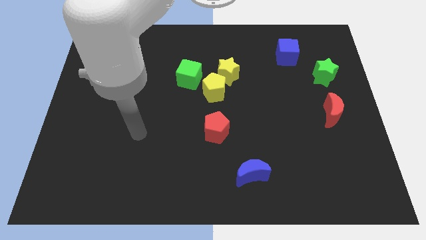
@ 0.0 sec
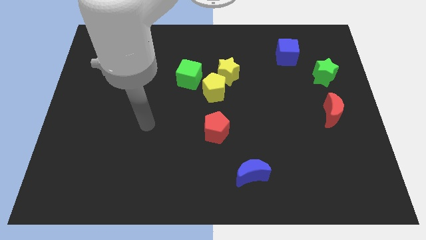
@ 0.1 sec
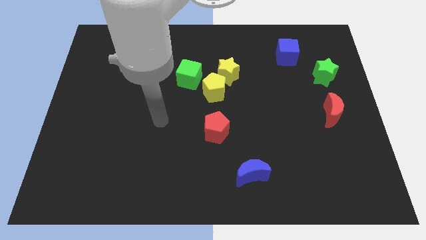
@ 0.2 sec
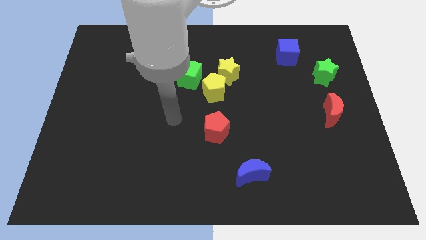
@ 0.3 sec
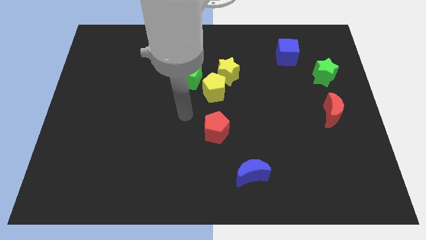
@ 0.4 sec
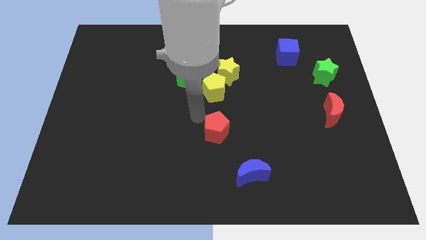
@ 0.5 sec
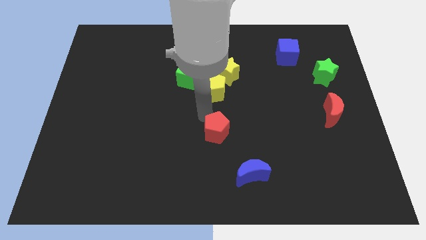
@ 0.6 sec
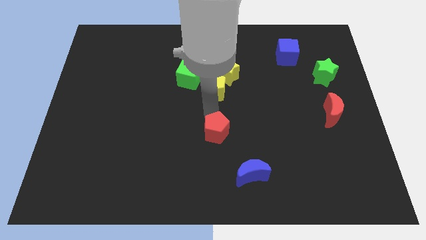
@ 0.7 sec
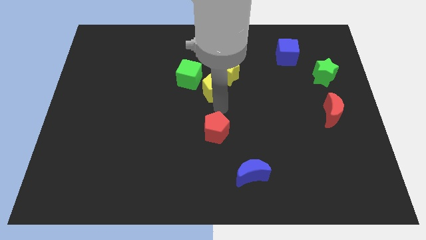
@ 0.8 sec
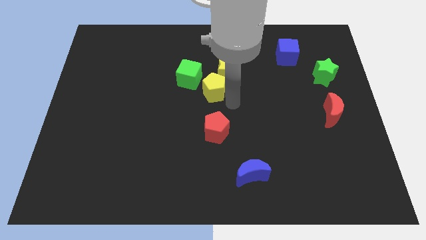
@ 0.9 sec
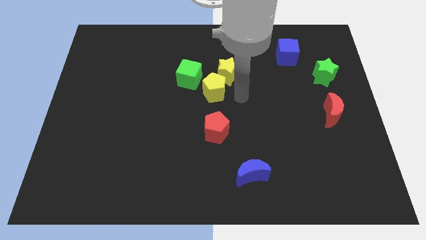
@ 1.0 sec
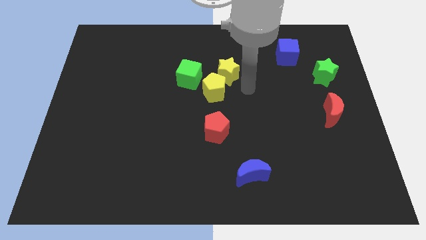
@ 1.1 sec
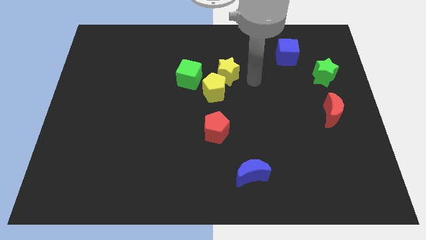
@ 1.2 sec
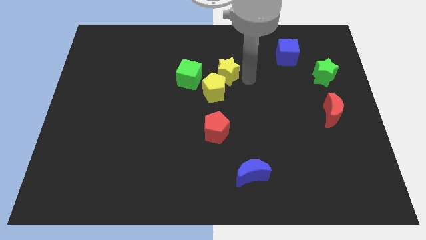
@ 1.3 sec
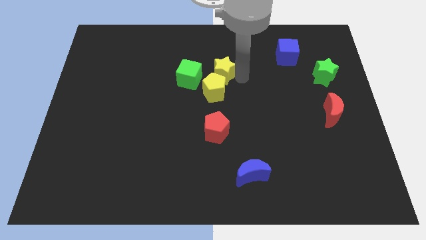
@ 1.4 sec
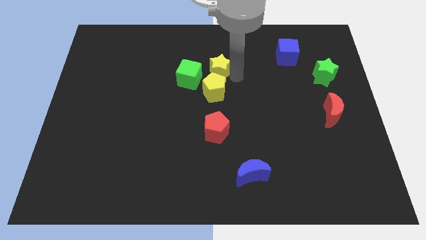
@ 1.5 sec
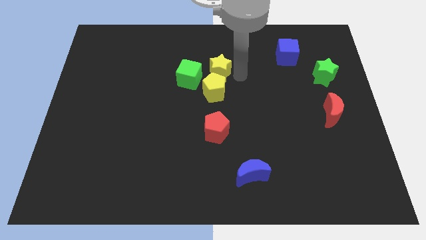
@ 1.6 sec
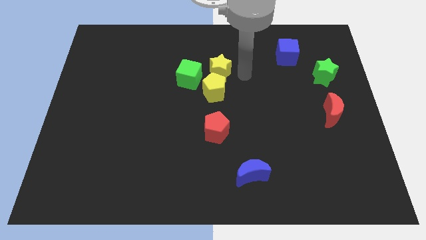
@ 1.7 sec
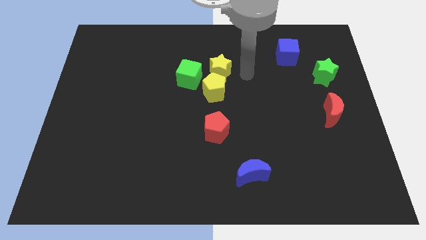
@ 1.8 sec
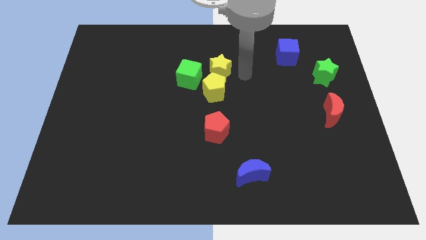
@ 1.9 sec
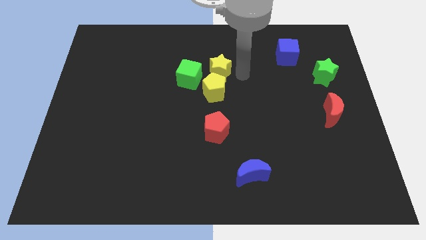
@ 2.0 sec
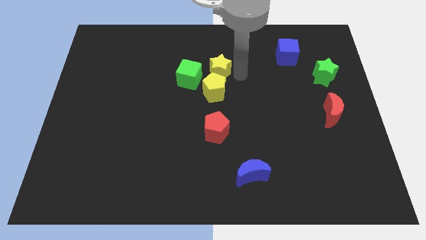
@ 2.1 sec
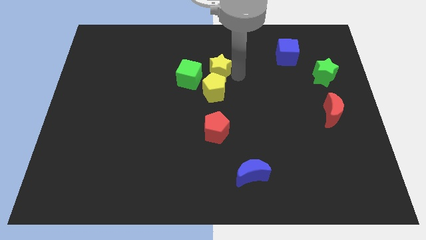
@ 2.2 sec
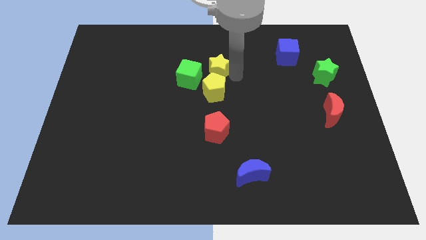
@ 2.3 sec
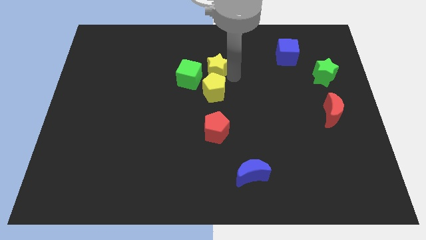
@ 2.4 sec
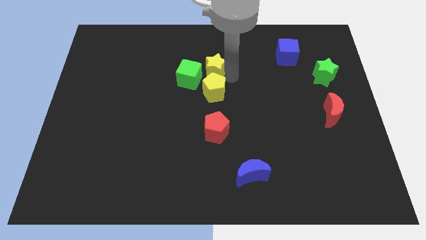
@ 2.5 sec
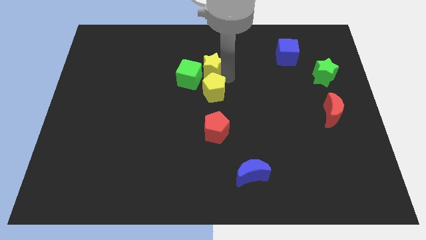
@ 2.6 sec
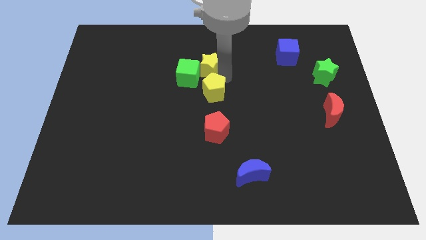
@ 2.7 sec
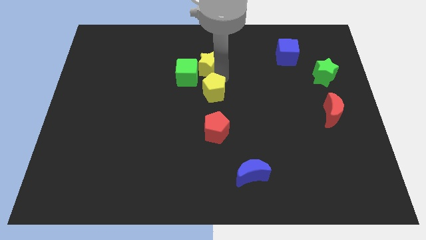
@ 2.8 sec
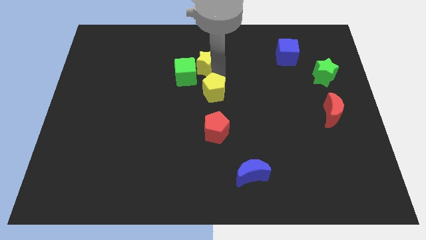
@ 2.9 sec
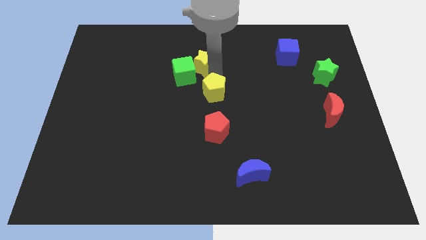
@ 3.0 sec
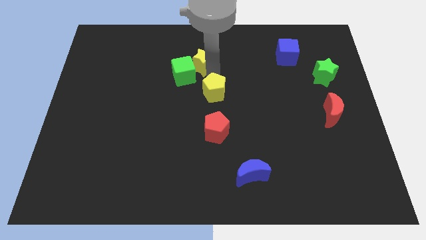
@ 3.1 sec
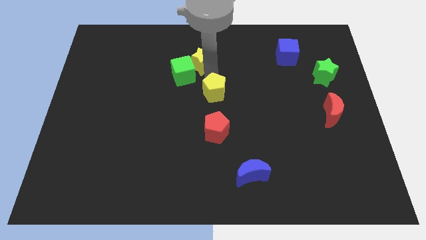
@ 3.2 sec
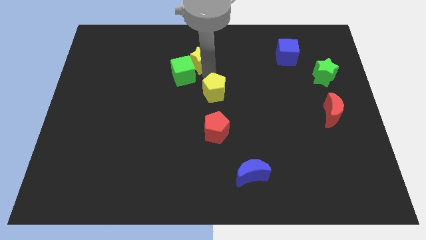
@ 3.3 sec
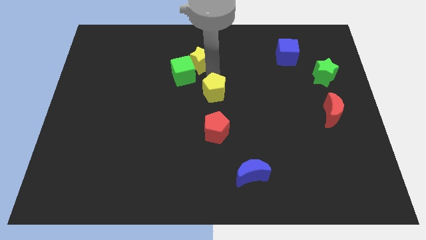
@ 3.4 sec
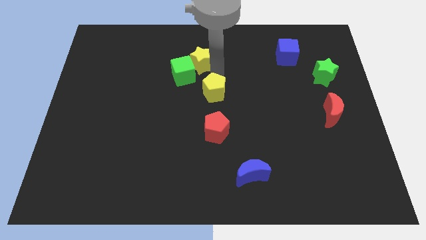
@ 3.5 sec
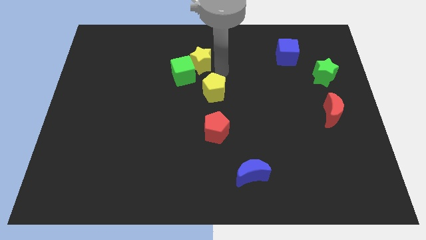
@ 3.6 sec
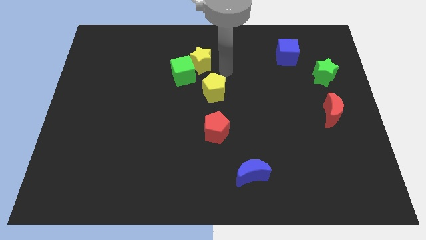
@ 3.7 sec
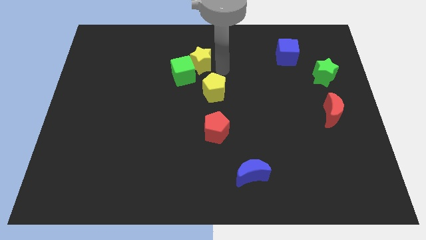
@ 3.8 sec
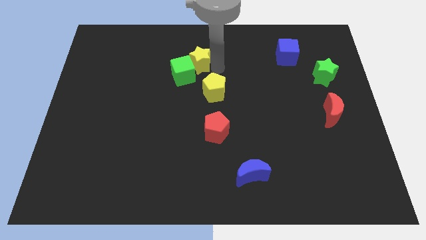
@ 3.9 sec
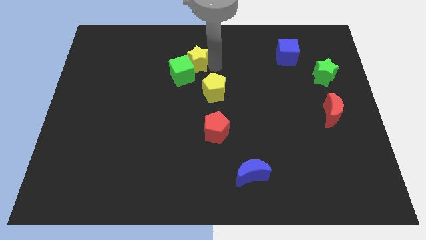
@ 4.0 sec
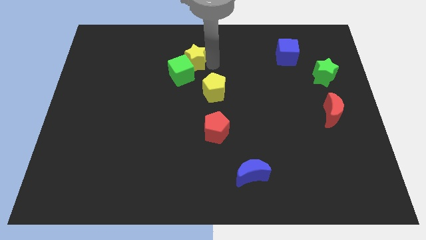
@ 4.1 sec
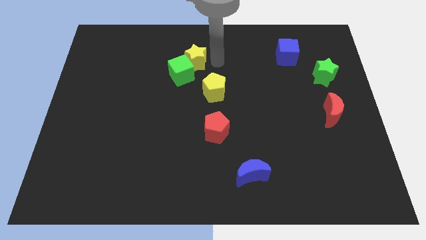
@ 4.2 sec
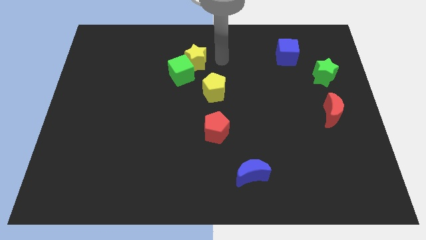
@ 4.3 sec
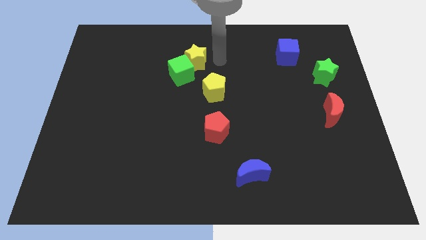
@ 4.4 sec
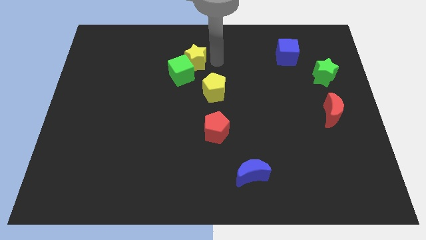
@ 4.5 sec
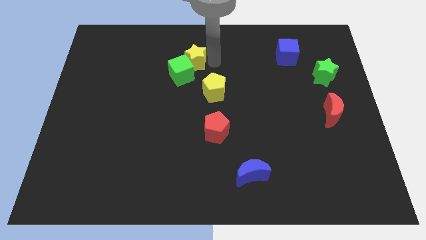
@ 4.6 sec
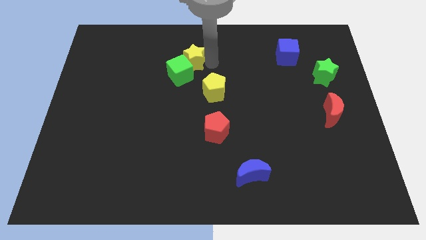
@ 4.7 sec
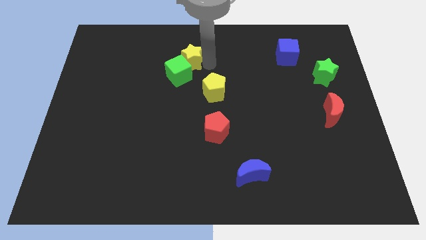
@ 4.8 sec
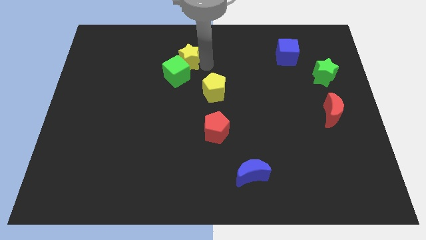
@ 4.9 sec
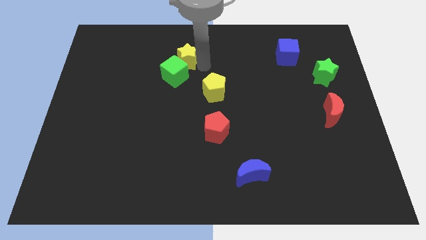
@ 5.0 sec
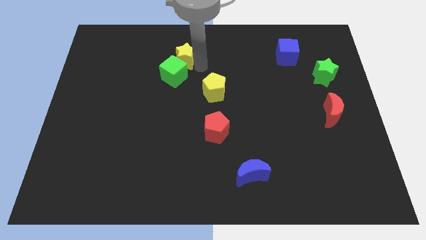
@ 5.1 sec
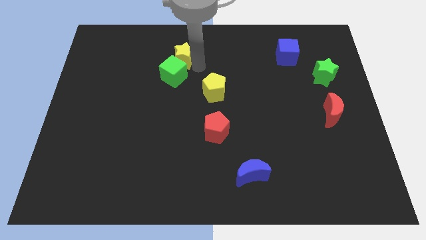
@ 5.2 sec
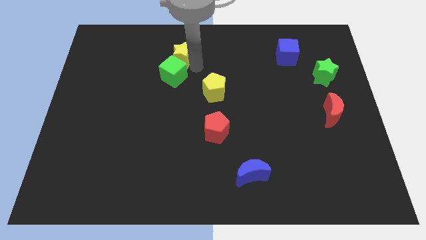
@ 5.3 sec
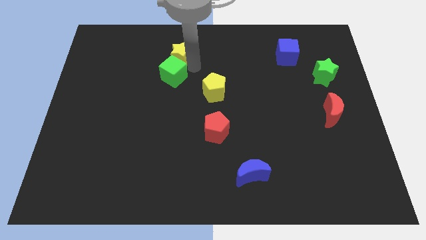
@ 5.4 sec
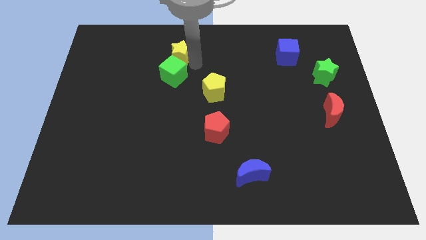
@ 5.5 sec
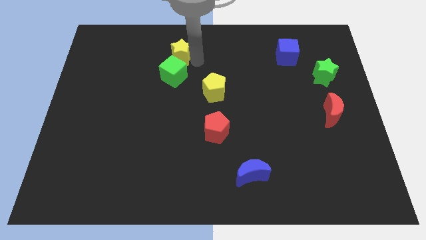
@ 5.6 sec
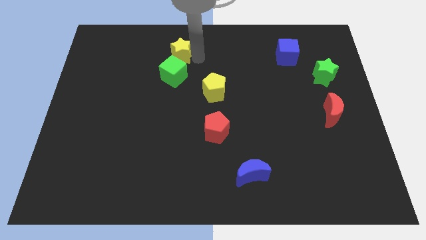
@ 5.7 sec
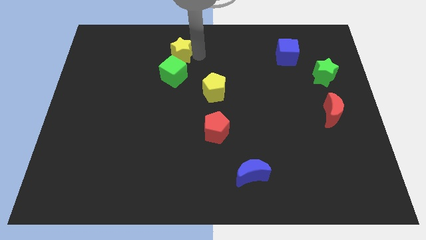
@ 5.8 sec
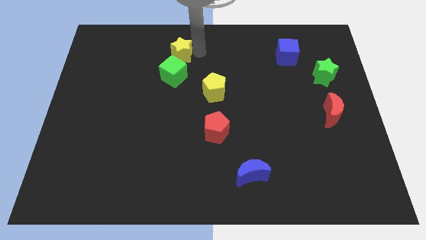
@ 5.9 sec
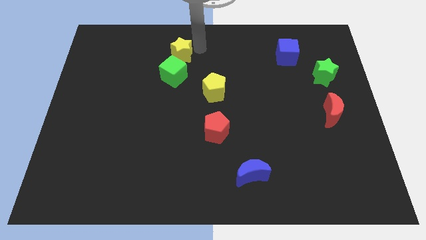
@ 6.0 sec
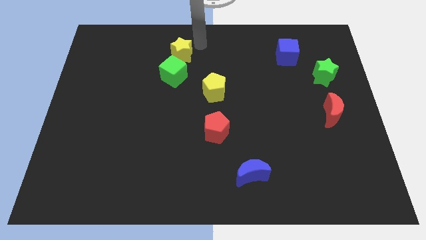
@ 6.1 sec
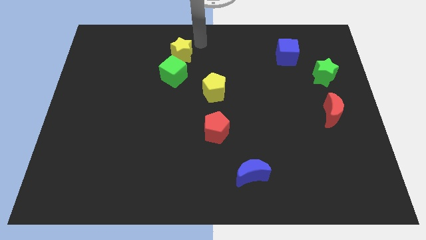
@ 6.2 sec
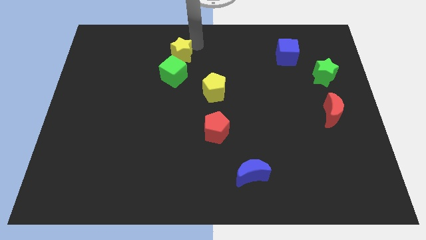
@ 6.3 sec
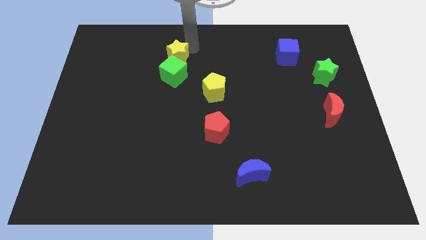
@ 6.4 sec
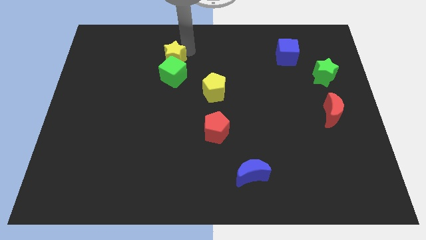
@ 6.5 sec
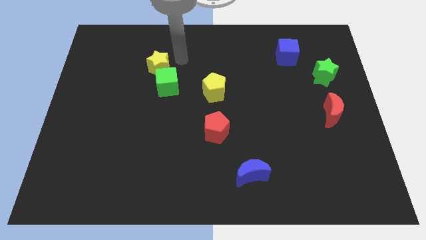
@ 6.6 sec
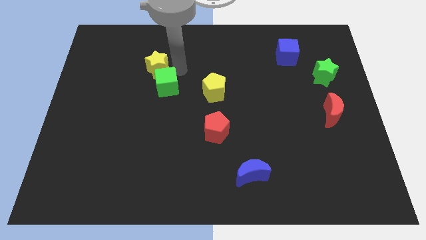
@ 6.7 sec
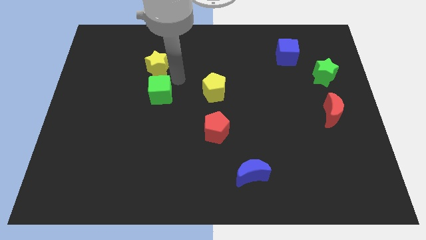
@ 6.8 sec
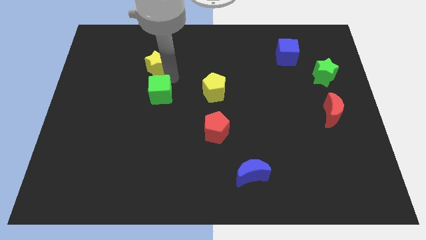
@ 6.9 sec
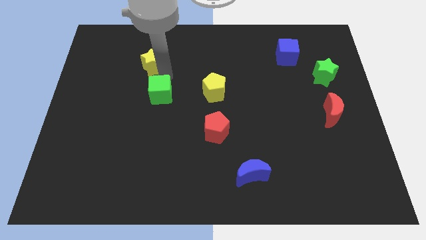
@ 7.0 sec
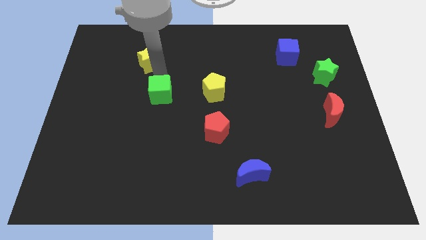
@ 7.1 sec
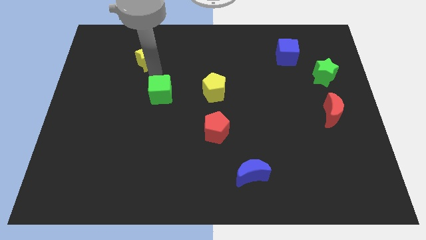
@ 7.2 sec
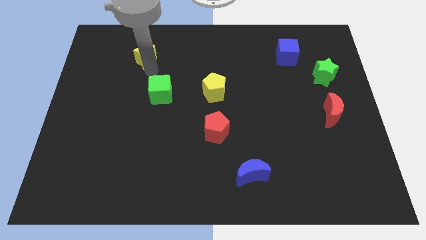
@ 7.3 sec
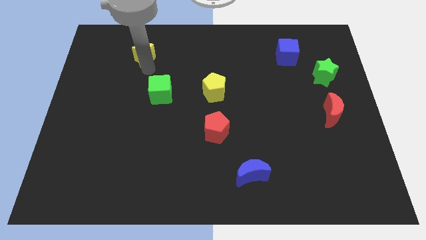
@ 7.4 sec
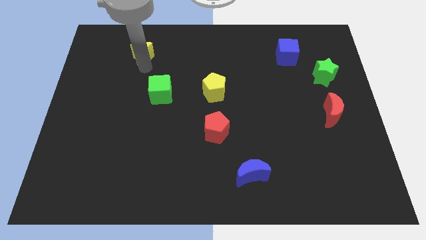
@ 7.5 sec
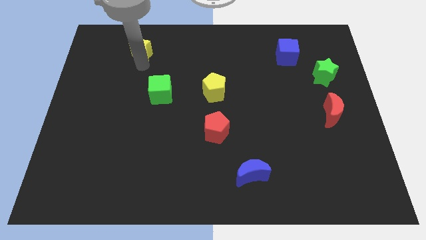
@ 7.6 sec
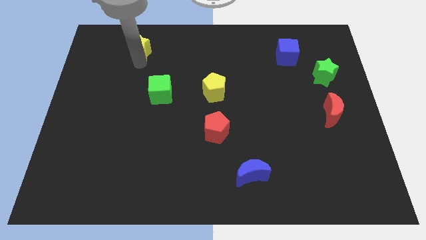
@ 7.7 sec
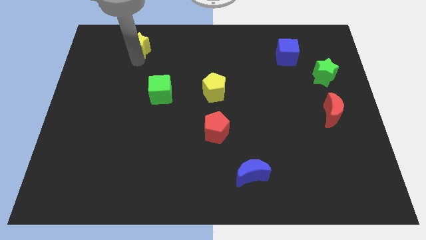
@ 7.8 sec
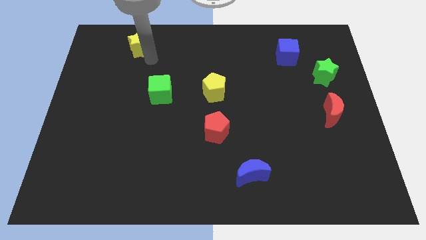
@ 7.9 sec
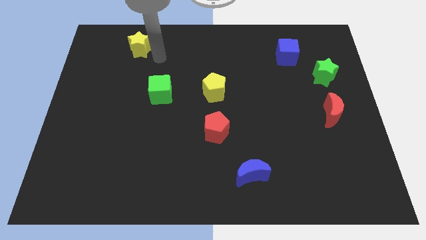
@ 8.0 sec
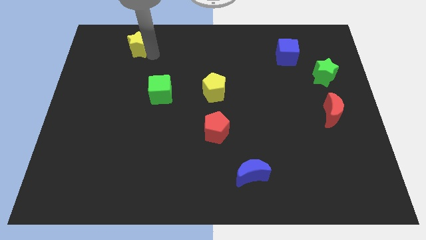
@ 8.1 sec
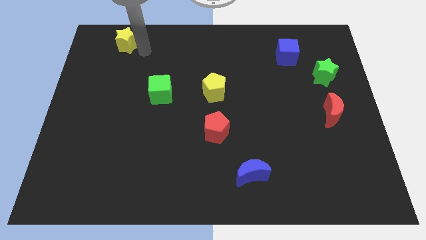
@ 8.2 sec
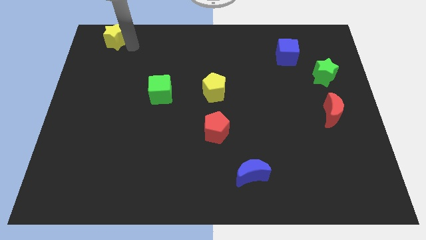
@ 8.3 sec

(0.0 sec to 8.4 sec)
move the yellow star to the top left of the board
